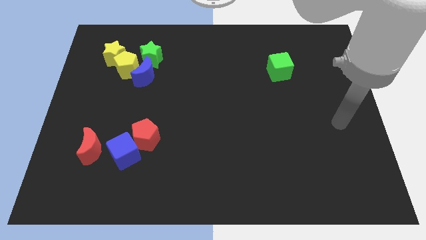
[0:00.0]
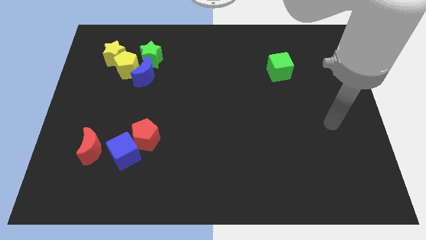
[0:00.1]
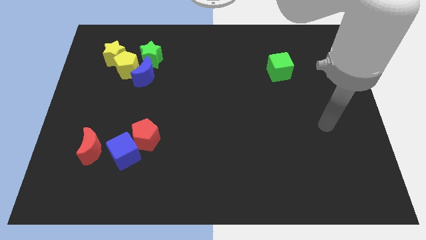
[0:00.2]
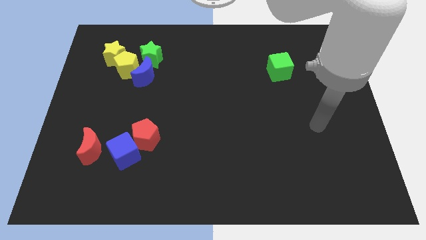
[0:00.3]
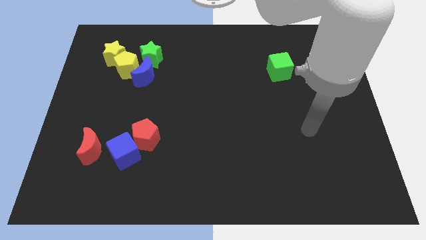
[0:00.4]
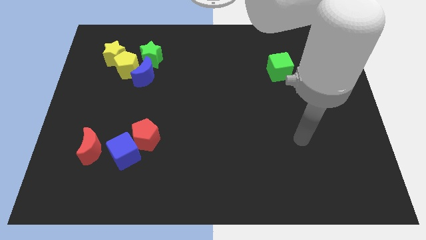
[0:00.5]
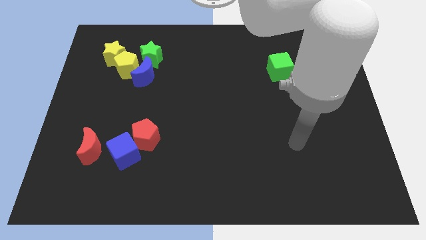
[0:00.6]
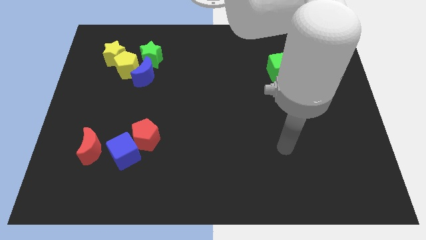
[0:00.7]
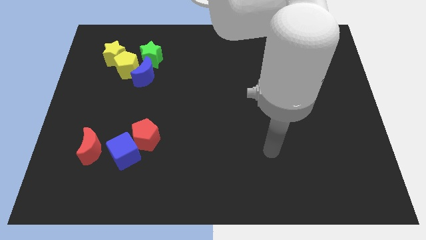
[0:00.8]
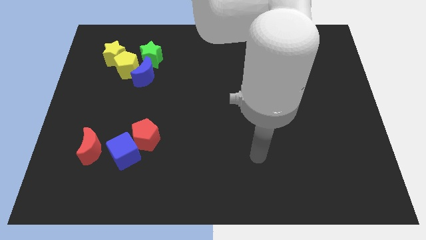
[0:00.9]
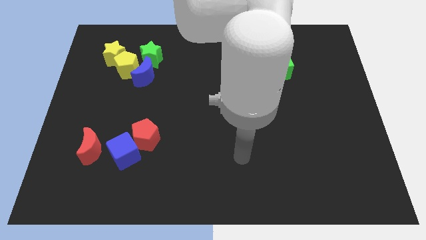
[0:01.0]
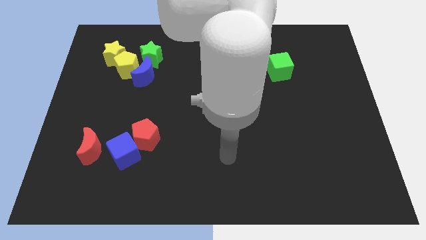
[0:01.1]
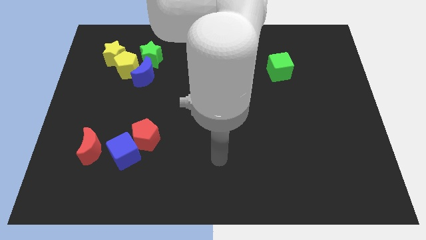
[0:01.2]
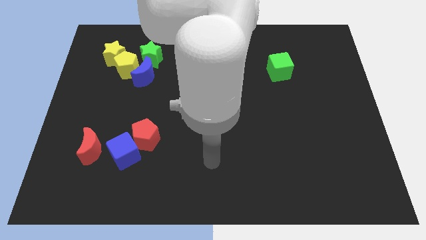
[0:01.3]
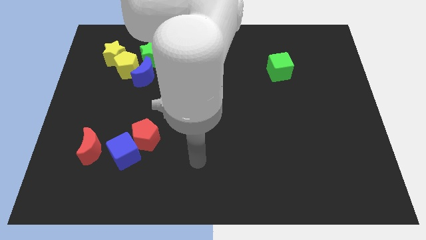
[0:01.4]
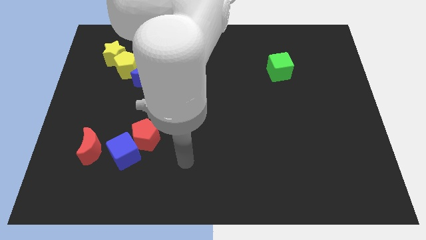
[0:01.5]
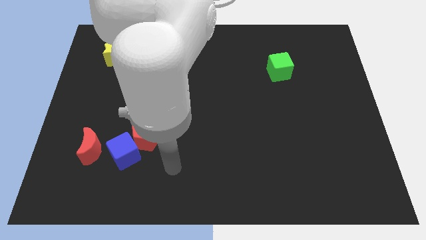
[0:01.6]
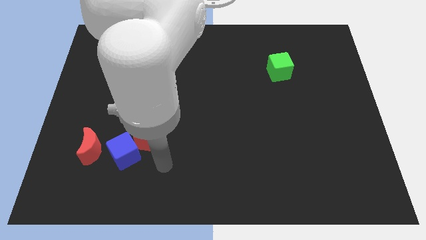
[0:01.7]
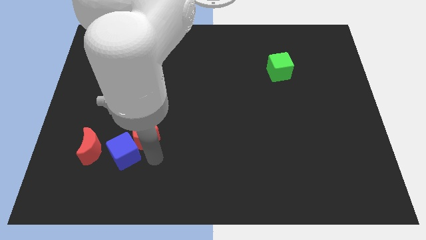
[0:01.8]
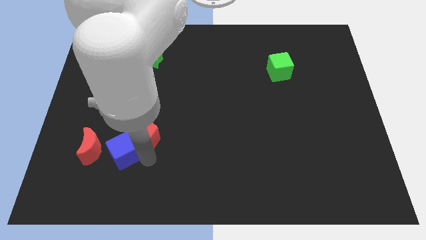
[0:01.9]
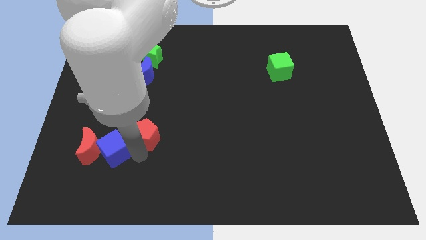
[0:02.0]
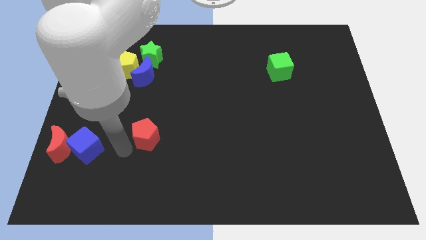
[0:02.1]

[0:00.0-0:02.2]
separate the red pentagon from the blue cube

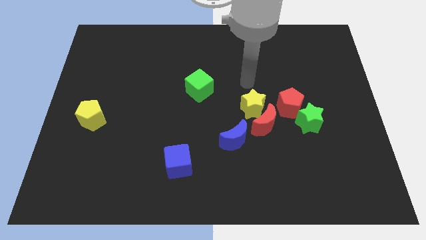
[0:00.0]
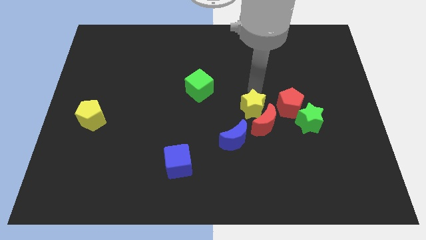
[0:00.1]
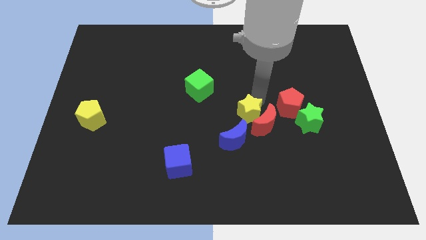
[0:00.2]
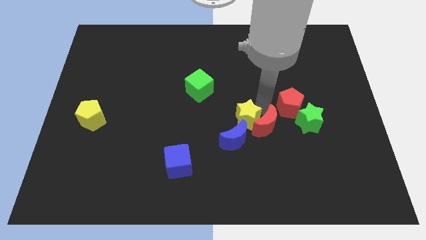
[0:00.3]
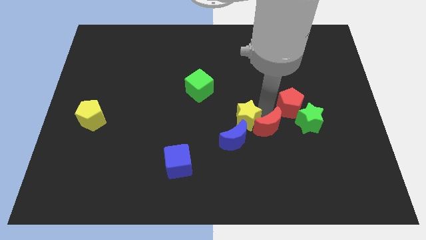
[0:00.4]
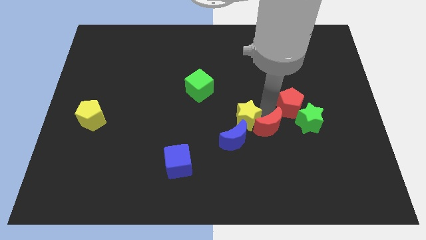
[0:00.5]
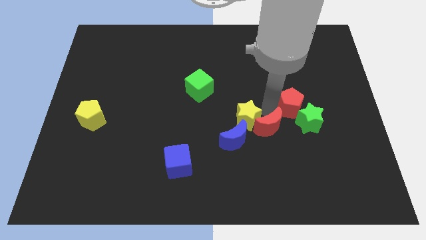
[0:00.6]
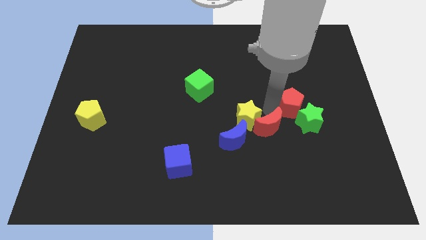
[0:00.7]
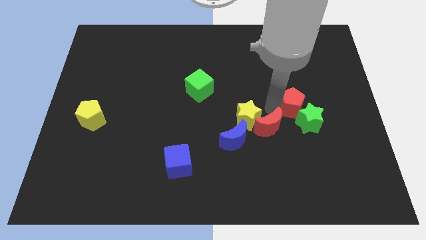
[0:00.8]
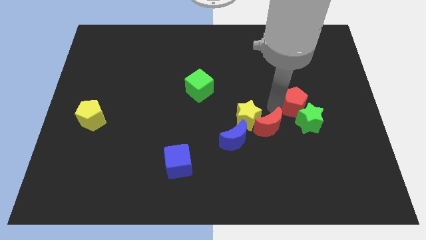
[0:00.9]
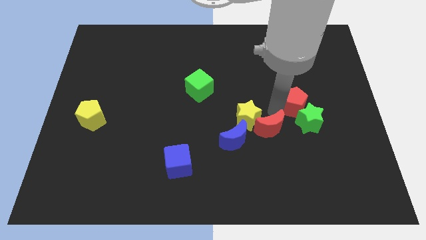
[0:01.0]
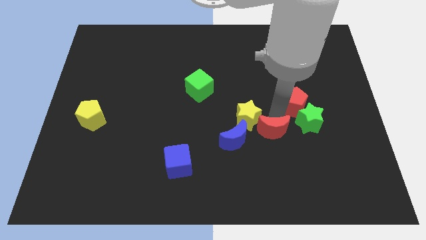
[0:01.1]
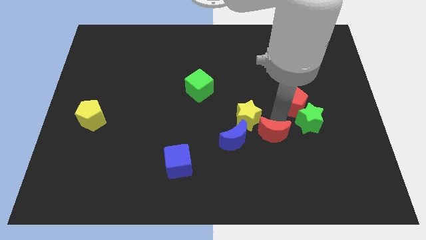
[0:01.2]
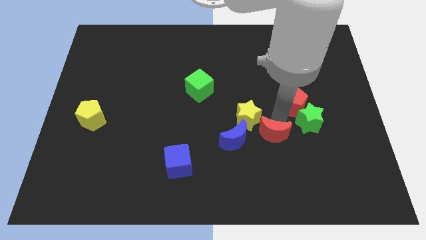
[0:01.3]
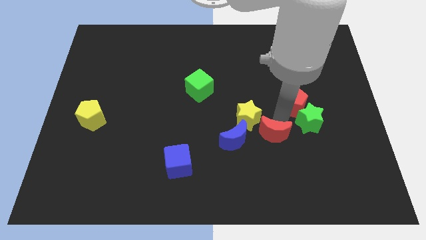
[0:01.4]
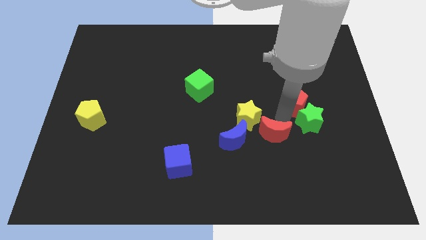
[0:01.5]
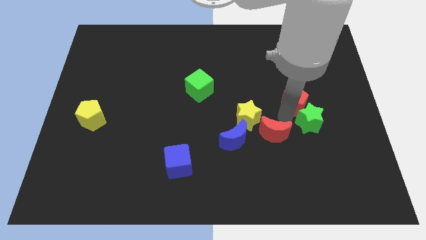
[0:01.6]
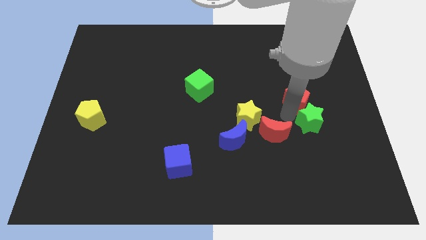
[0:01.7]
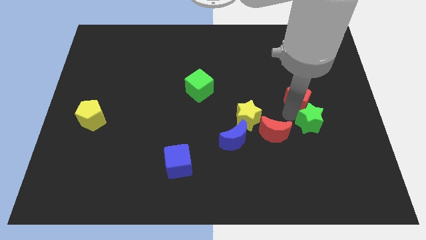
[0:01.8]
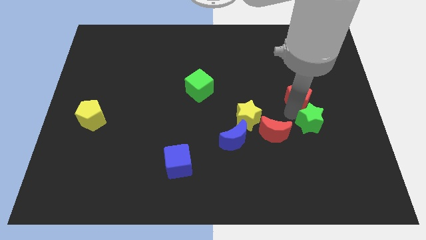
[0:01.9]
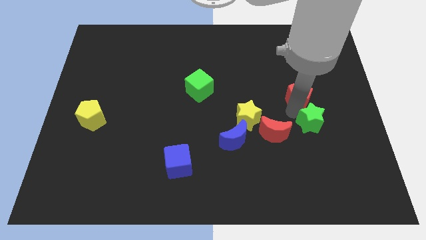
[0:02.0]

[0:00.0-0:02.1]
pull the red pentagon apart from the group of blocks

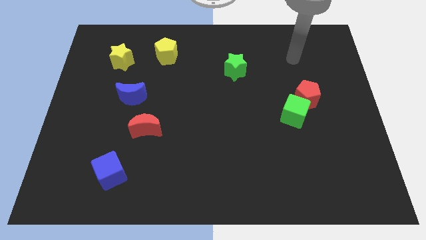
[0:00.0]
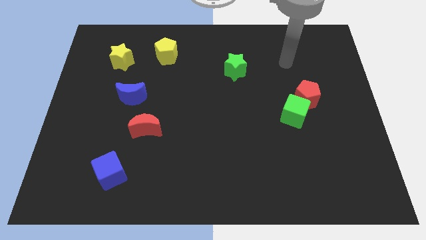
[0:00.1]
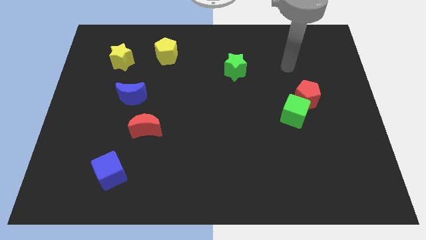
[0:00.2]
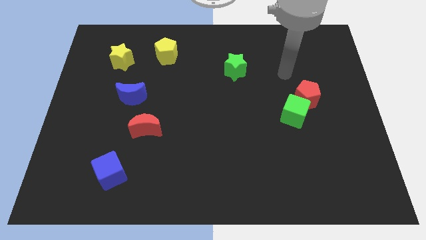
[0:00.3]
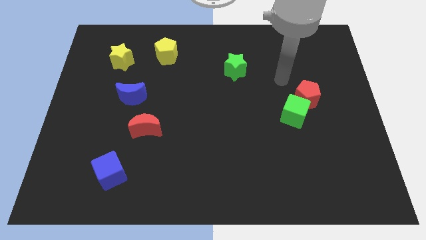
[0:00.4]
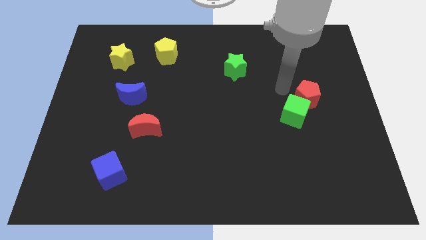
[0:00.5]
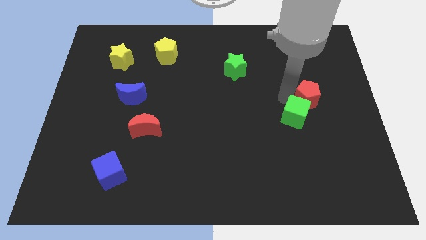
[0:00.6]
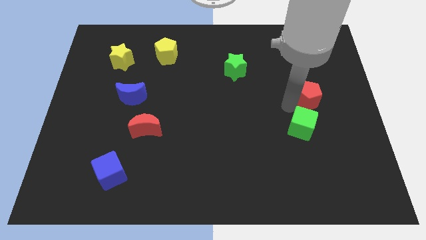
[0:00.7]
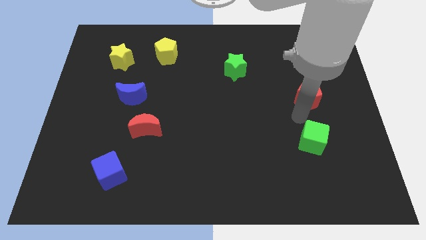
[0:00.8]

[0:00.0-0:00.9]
separate the red pentagon from the green cube

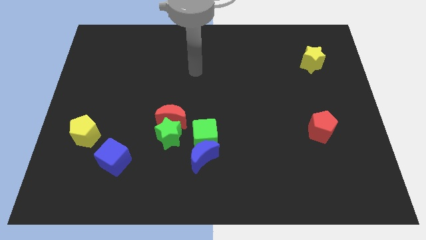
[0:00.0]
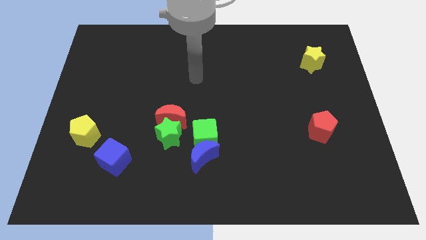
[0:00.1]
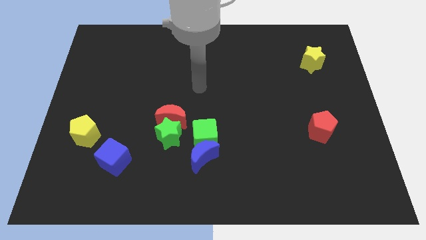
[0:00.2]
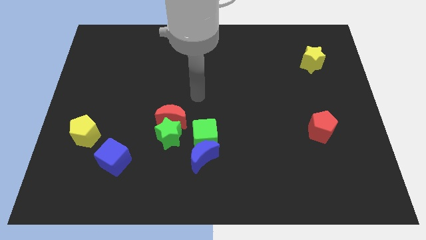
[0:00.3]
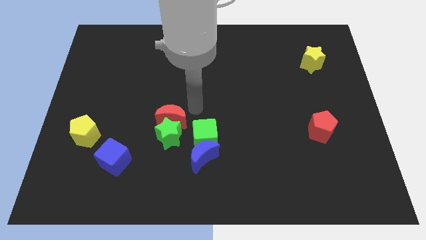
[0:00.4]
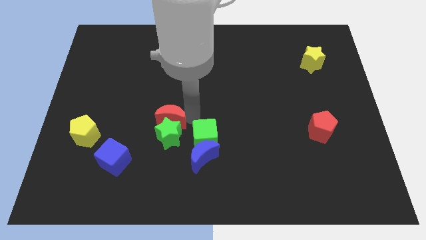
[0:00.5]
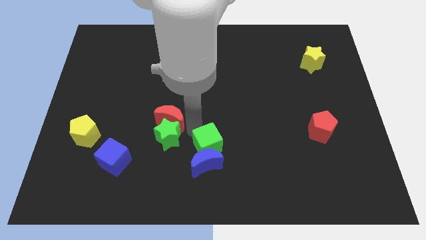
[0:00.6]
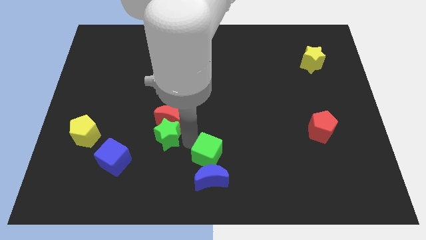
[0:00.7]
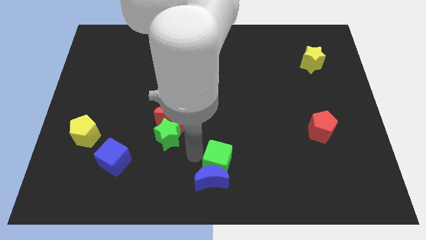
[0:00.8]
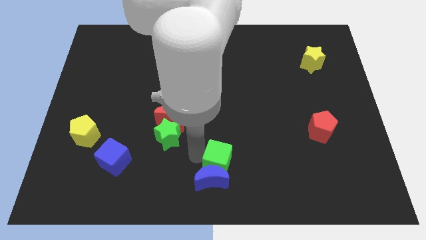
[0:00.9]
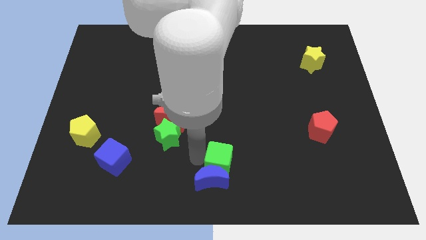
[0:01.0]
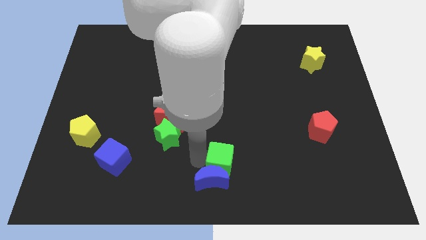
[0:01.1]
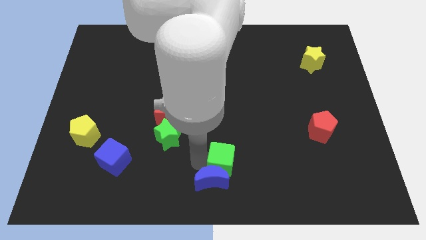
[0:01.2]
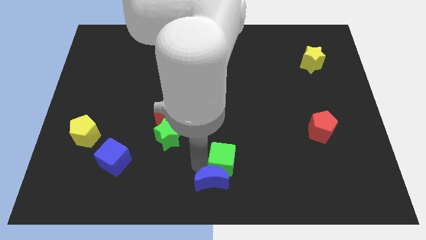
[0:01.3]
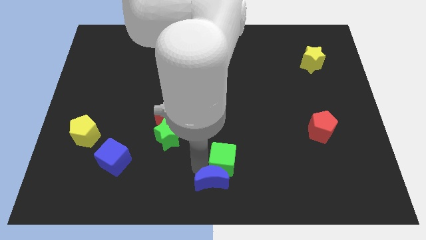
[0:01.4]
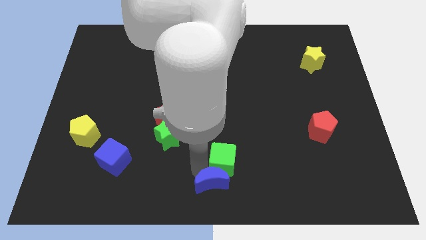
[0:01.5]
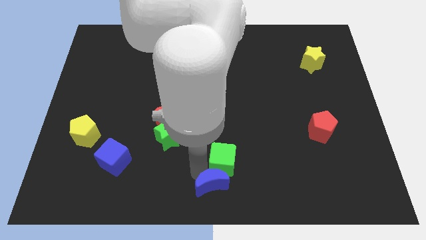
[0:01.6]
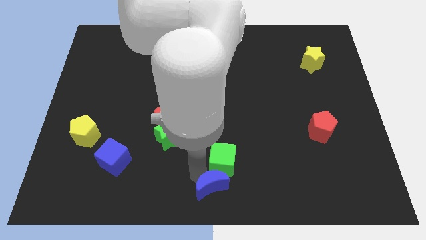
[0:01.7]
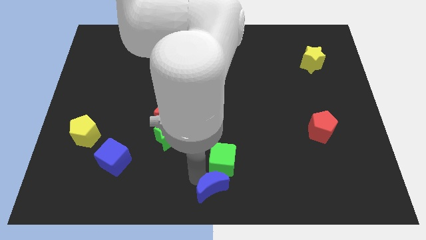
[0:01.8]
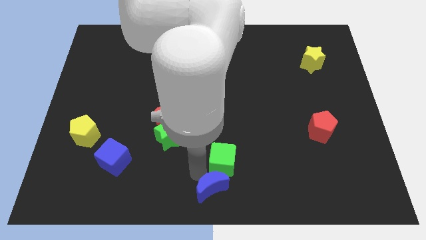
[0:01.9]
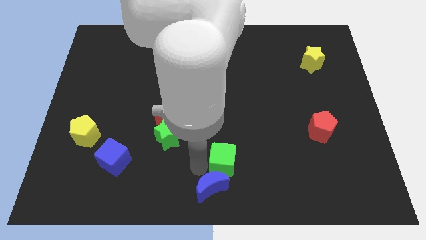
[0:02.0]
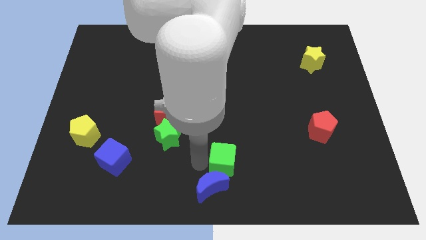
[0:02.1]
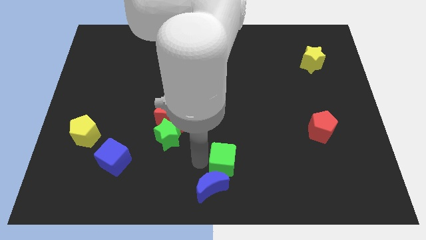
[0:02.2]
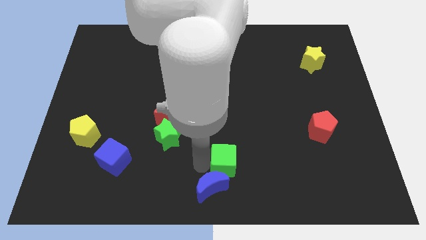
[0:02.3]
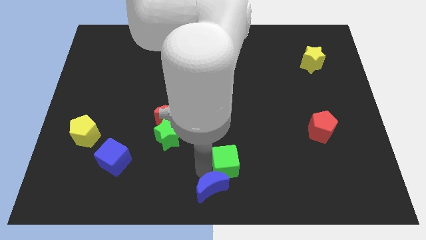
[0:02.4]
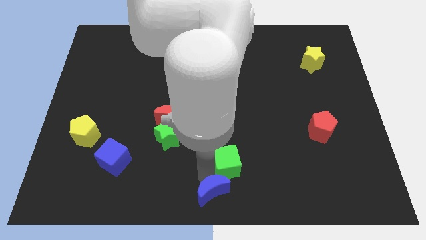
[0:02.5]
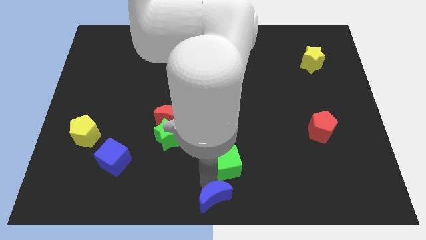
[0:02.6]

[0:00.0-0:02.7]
separate the blue moon from the green cube and green star

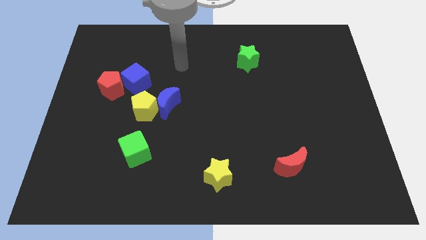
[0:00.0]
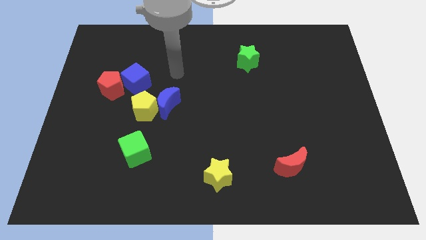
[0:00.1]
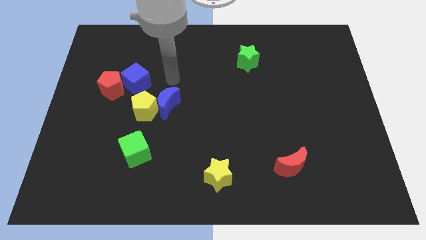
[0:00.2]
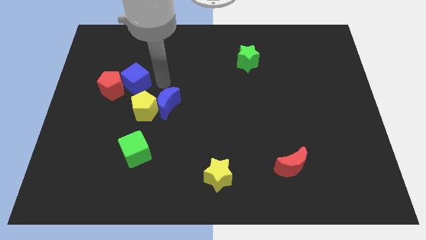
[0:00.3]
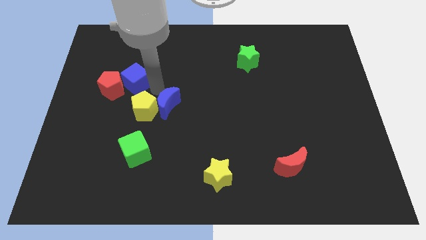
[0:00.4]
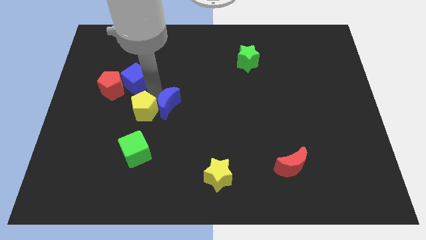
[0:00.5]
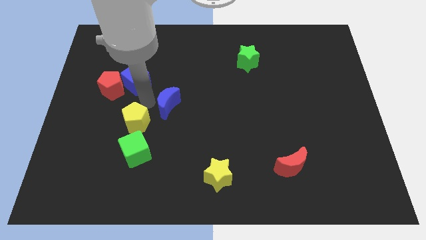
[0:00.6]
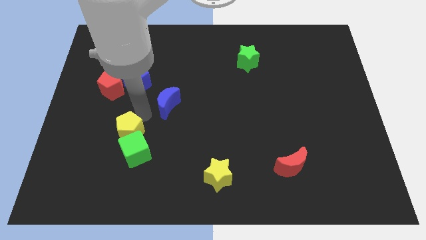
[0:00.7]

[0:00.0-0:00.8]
separate the blue moon from the yellow pentagon

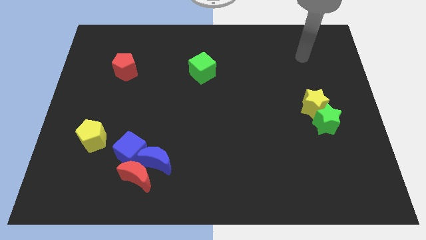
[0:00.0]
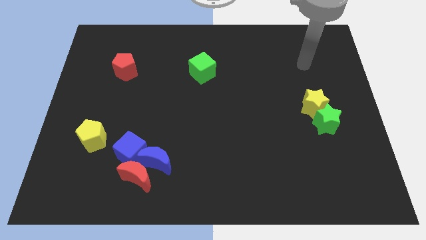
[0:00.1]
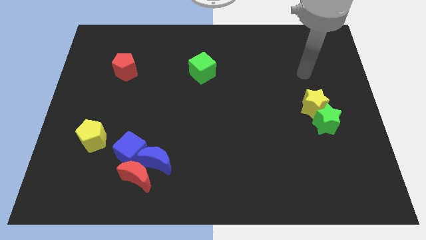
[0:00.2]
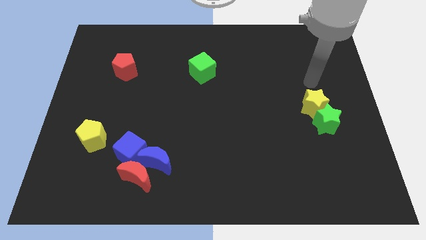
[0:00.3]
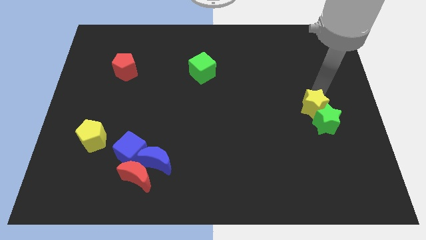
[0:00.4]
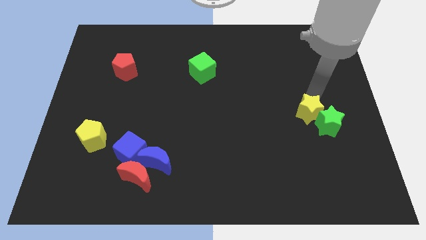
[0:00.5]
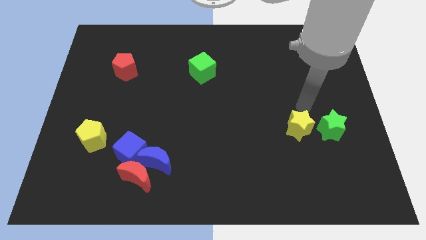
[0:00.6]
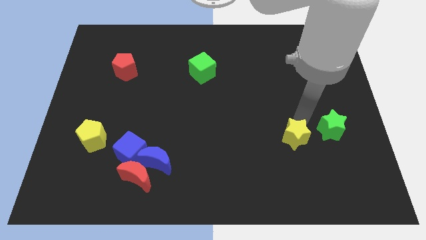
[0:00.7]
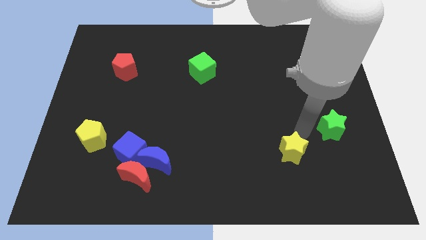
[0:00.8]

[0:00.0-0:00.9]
pull the green star apart from the yellow star
